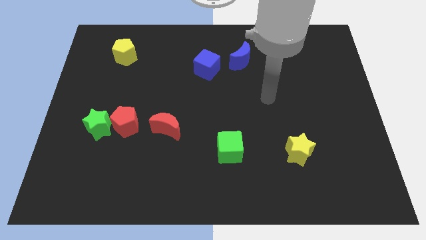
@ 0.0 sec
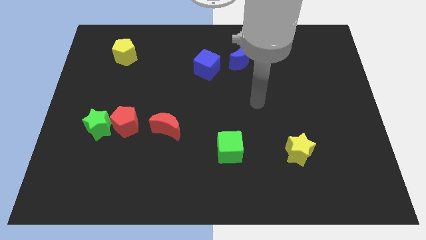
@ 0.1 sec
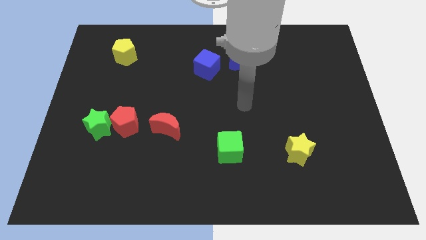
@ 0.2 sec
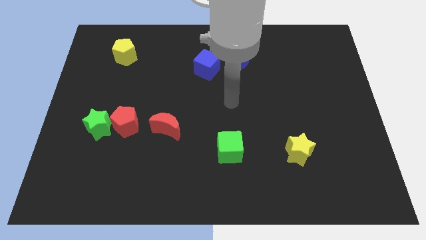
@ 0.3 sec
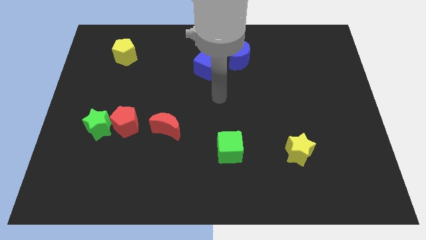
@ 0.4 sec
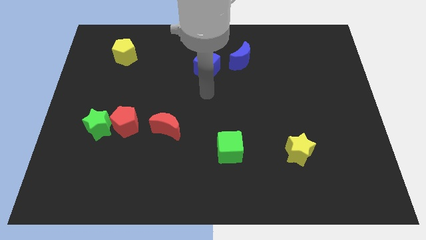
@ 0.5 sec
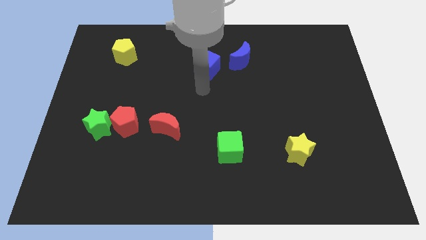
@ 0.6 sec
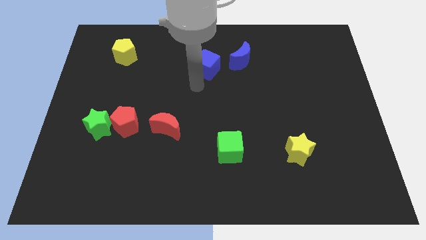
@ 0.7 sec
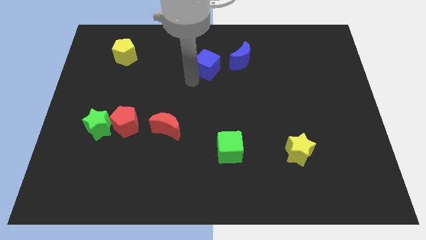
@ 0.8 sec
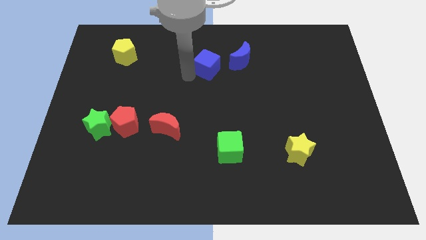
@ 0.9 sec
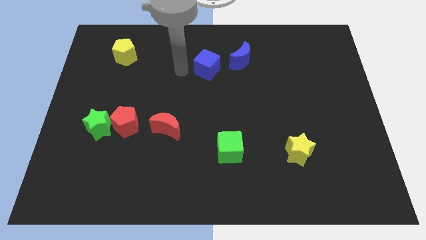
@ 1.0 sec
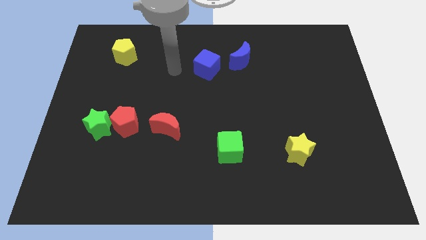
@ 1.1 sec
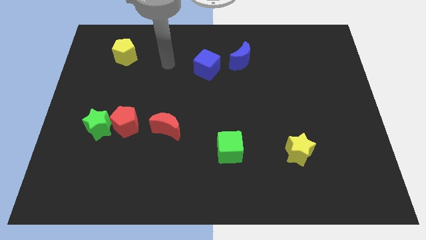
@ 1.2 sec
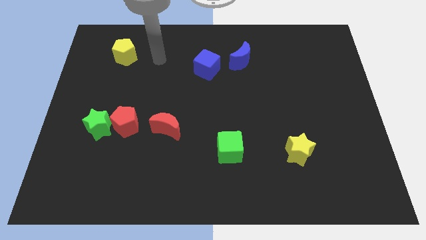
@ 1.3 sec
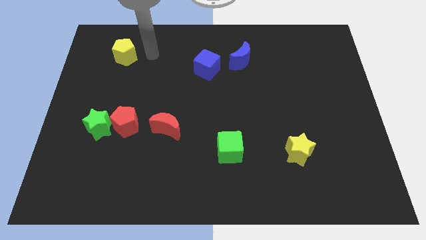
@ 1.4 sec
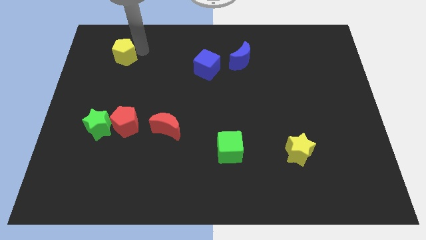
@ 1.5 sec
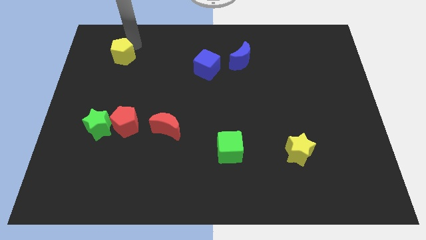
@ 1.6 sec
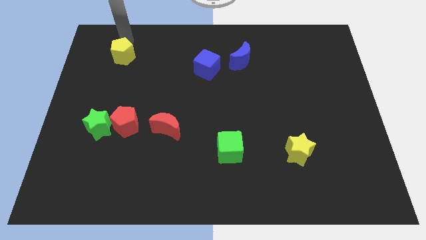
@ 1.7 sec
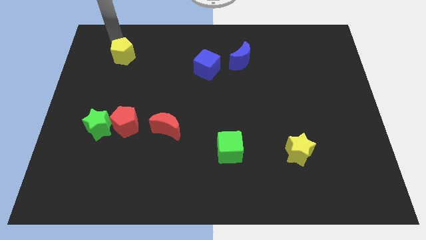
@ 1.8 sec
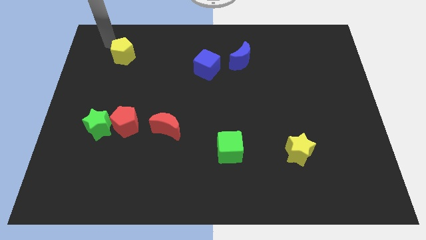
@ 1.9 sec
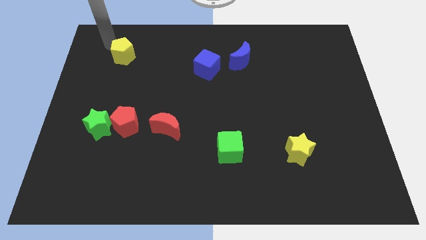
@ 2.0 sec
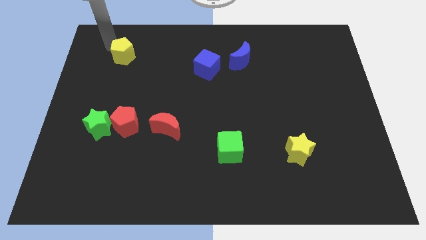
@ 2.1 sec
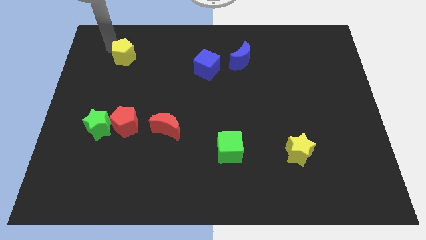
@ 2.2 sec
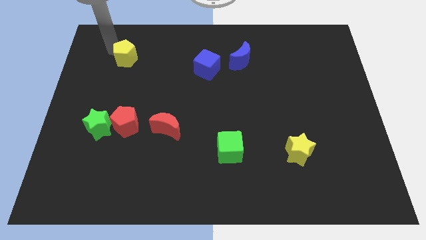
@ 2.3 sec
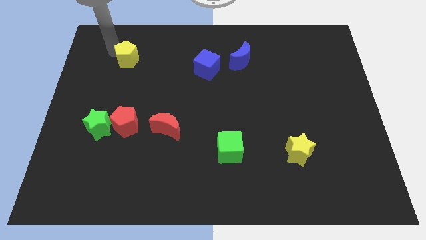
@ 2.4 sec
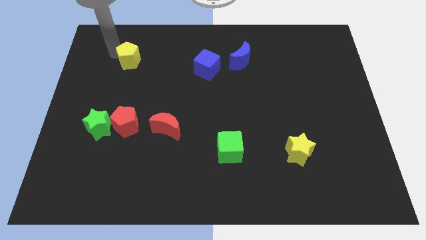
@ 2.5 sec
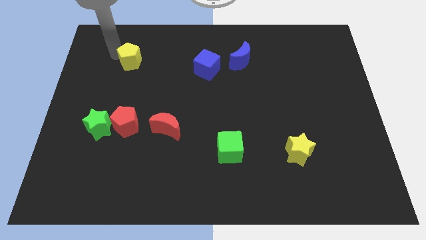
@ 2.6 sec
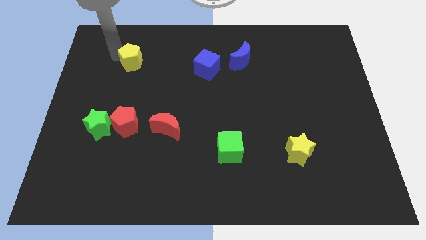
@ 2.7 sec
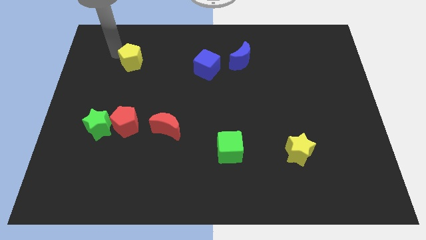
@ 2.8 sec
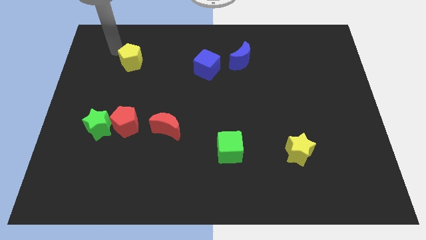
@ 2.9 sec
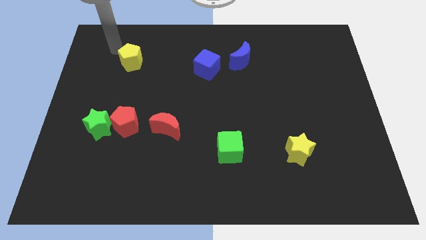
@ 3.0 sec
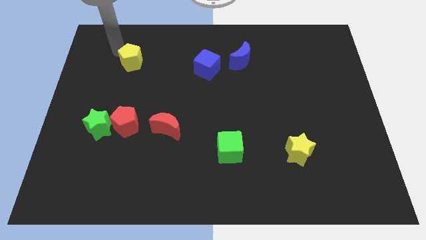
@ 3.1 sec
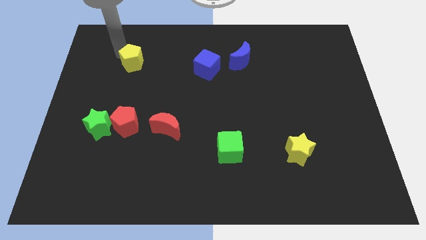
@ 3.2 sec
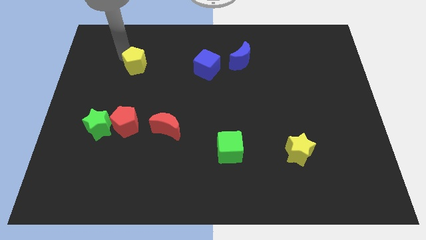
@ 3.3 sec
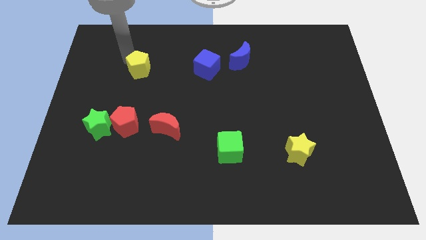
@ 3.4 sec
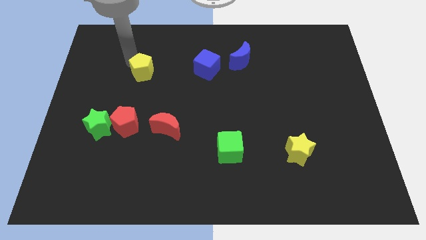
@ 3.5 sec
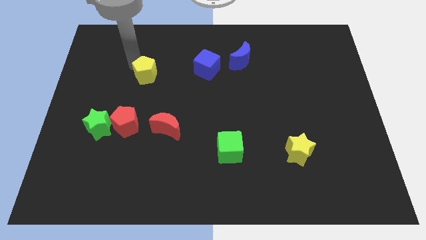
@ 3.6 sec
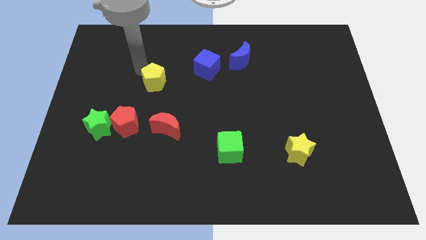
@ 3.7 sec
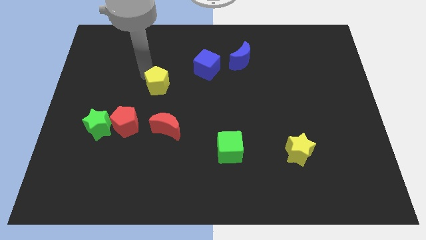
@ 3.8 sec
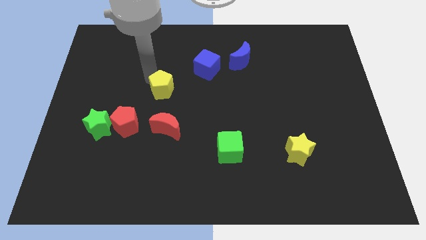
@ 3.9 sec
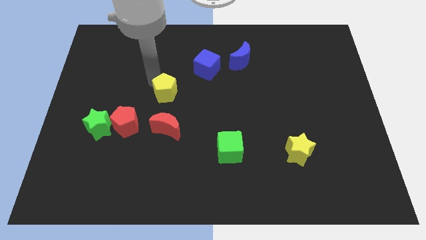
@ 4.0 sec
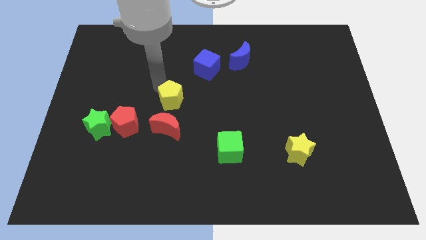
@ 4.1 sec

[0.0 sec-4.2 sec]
push the yellow pentagon downwards and to the right

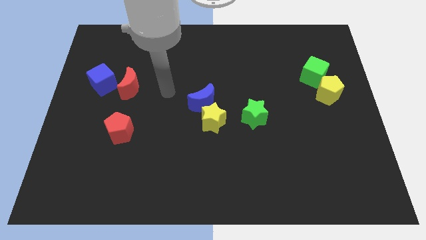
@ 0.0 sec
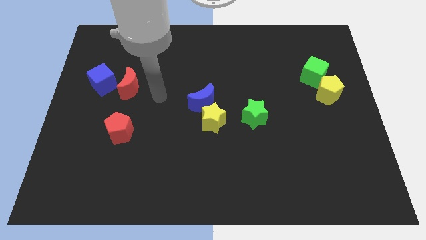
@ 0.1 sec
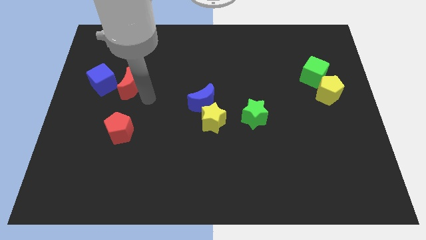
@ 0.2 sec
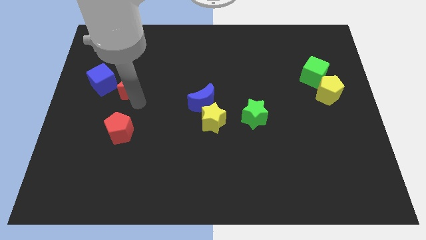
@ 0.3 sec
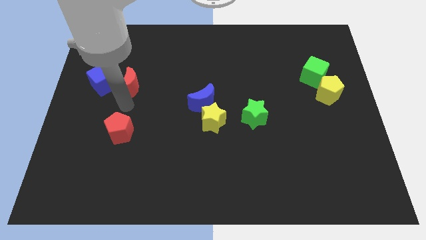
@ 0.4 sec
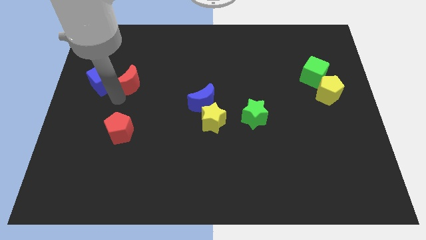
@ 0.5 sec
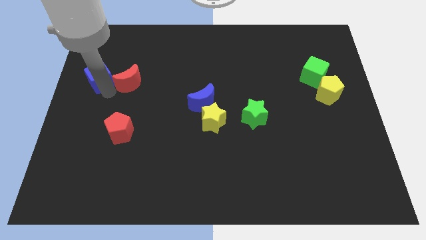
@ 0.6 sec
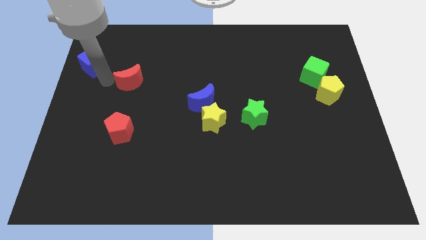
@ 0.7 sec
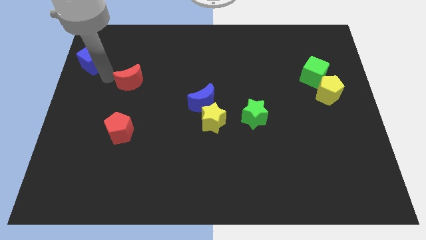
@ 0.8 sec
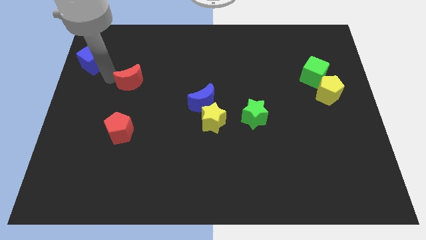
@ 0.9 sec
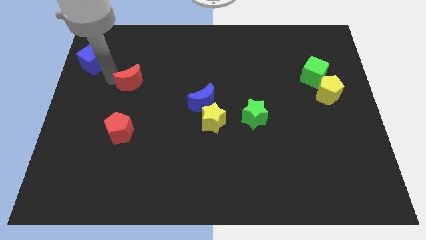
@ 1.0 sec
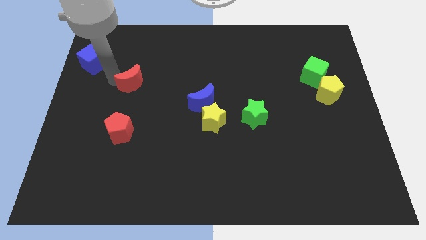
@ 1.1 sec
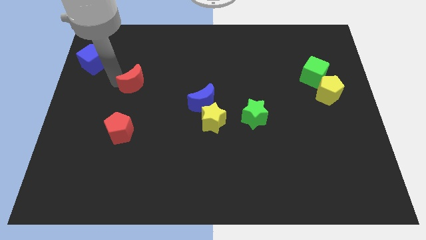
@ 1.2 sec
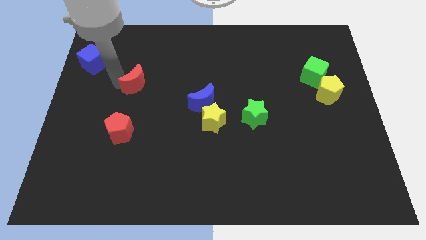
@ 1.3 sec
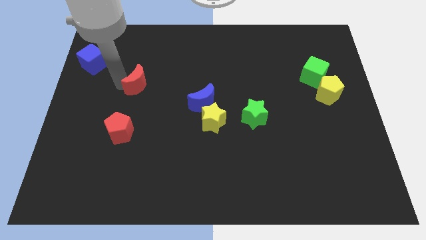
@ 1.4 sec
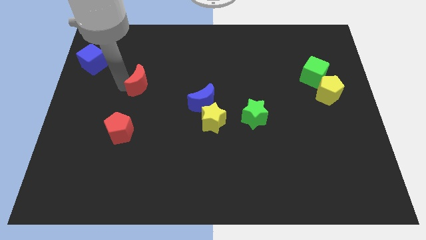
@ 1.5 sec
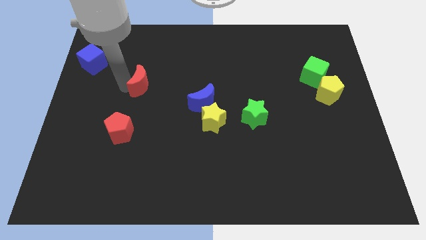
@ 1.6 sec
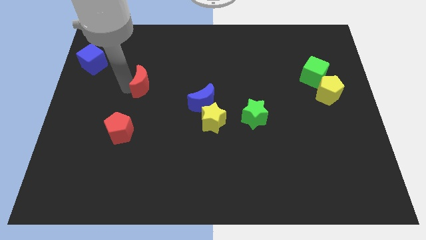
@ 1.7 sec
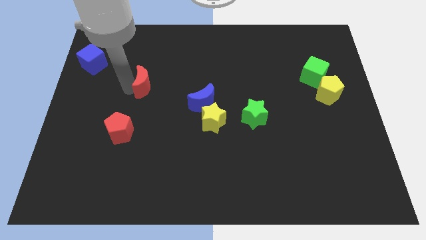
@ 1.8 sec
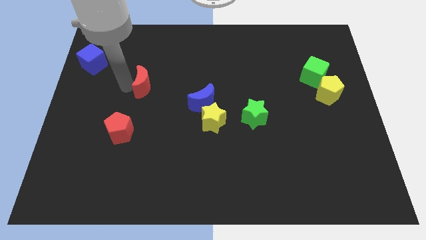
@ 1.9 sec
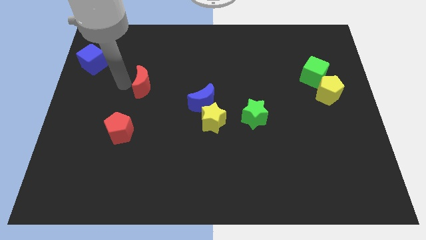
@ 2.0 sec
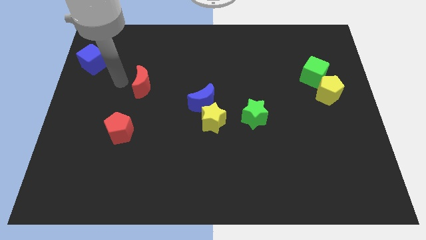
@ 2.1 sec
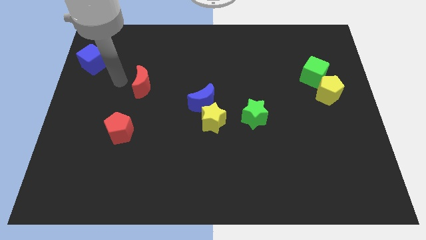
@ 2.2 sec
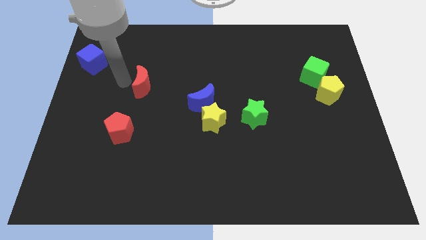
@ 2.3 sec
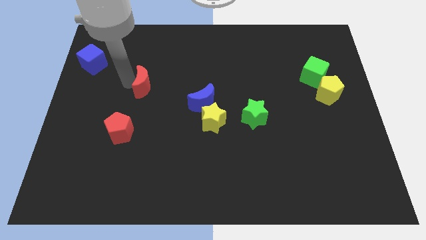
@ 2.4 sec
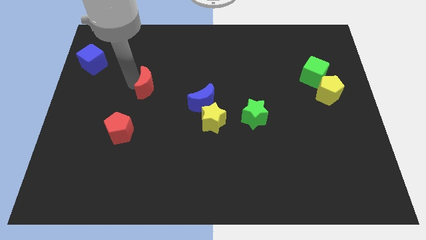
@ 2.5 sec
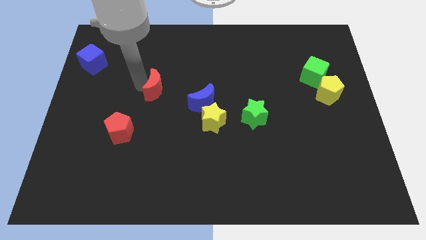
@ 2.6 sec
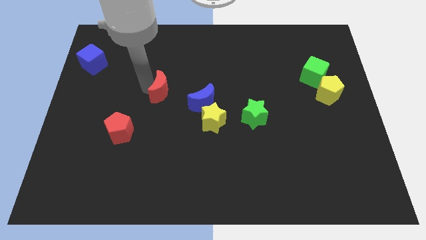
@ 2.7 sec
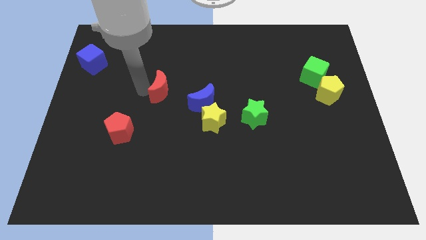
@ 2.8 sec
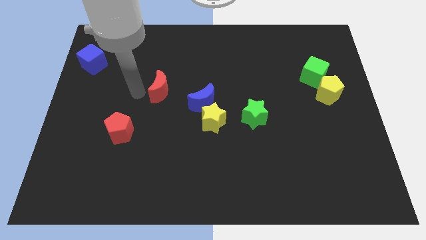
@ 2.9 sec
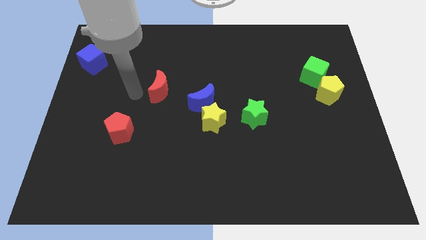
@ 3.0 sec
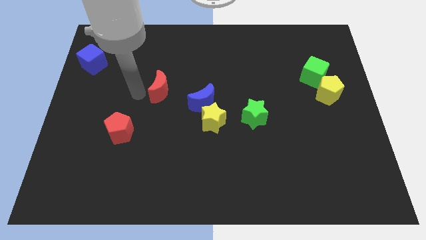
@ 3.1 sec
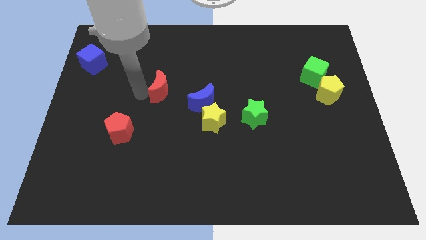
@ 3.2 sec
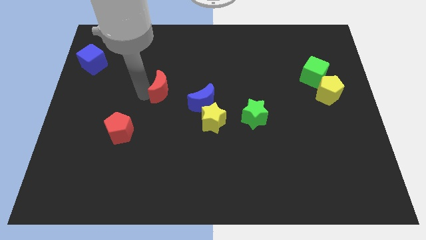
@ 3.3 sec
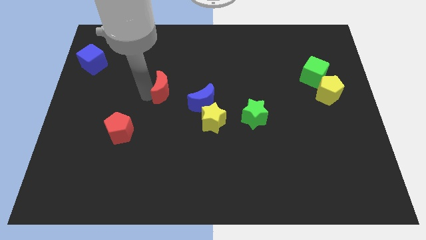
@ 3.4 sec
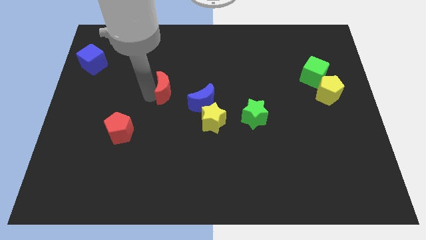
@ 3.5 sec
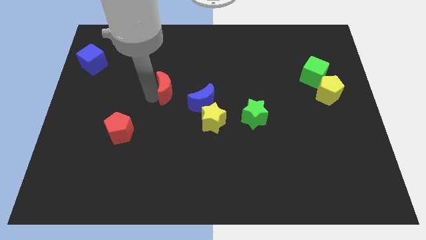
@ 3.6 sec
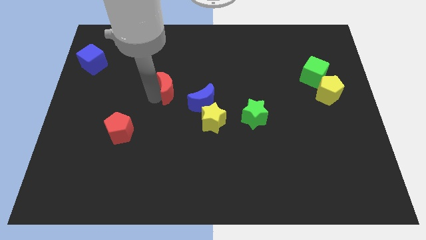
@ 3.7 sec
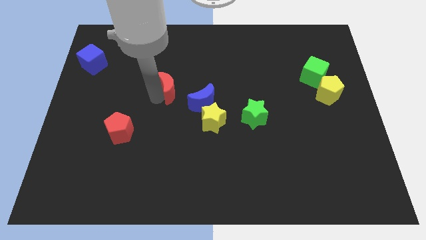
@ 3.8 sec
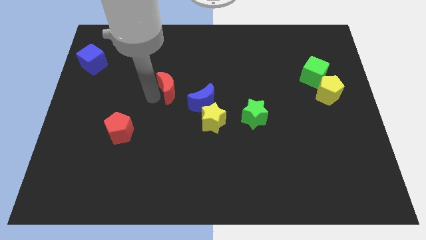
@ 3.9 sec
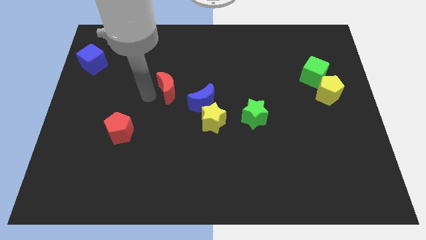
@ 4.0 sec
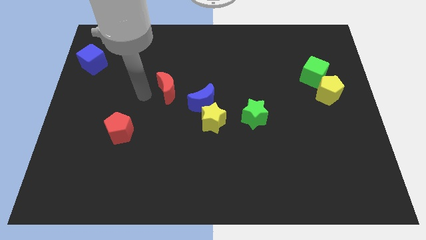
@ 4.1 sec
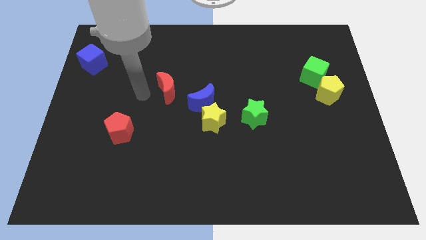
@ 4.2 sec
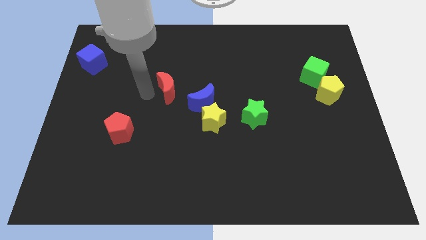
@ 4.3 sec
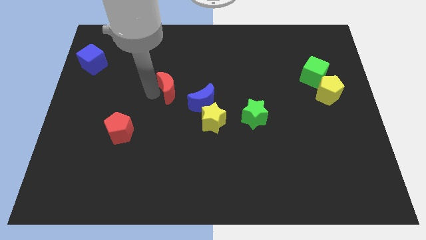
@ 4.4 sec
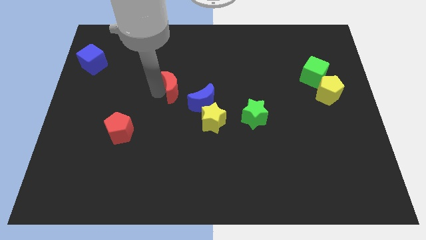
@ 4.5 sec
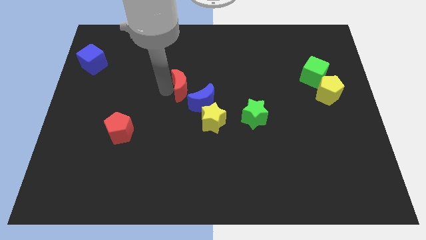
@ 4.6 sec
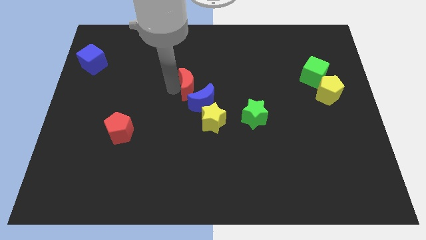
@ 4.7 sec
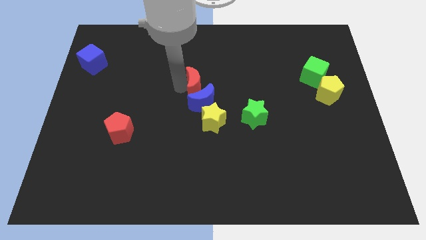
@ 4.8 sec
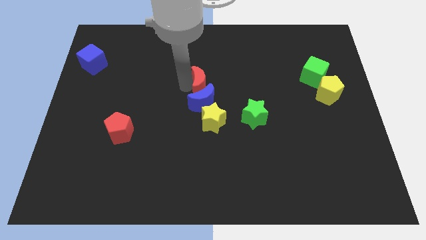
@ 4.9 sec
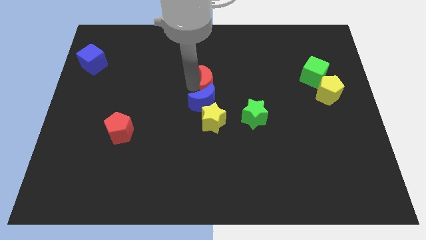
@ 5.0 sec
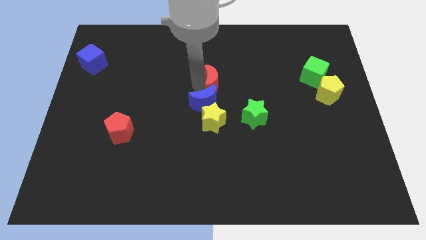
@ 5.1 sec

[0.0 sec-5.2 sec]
push the red moon to the right
